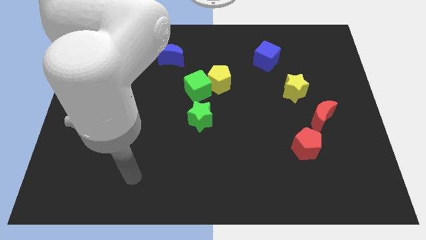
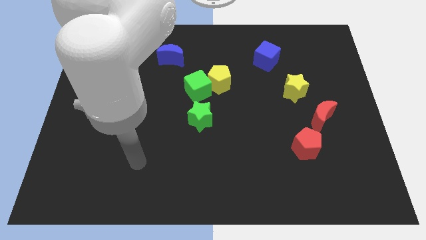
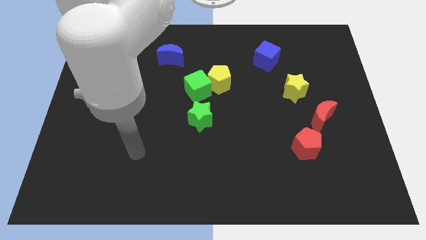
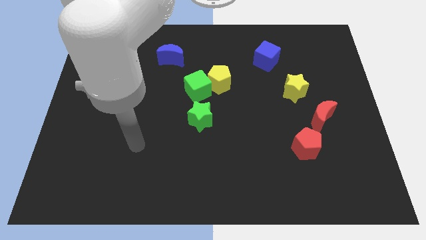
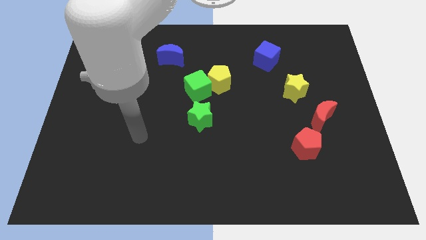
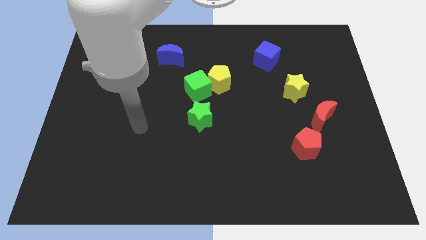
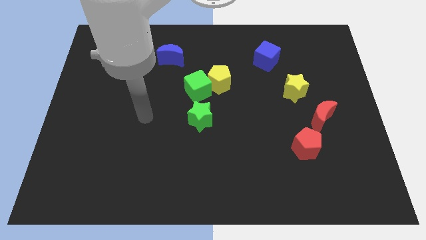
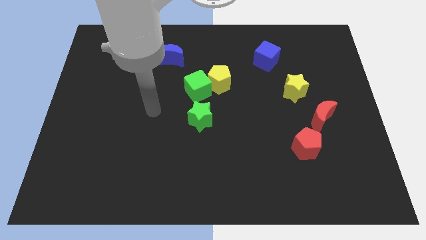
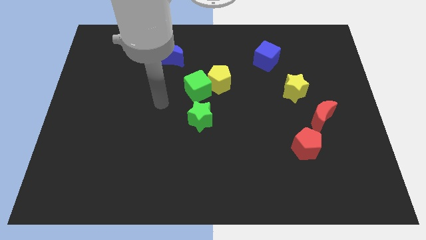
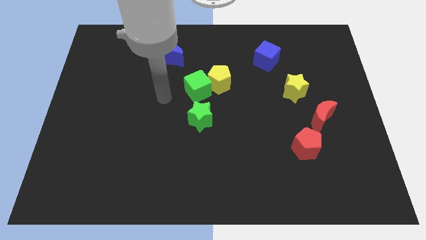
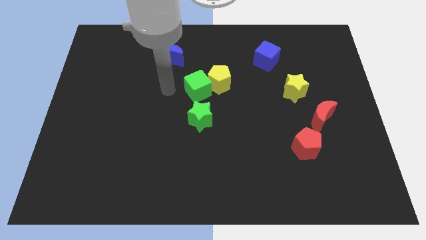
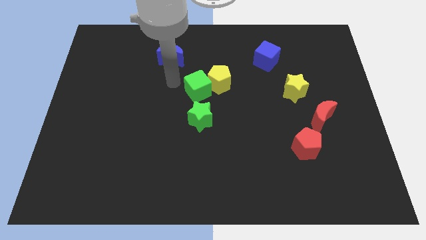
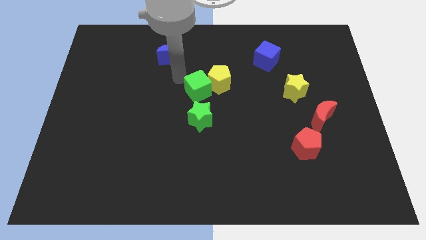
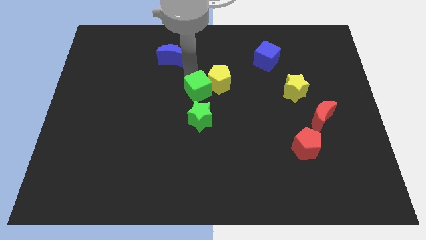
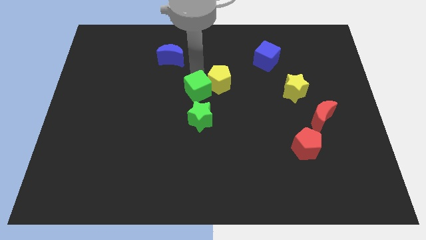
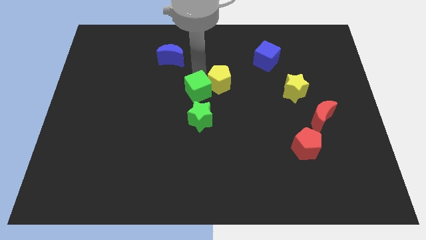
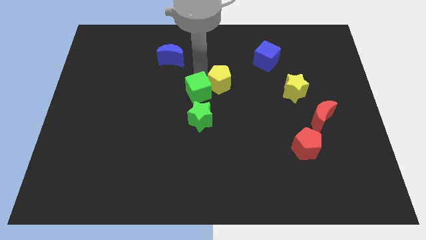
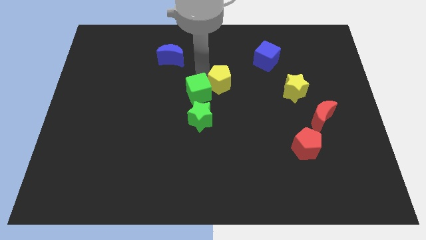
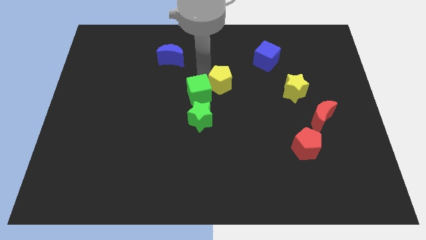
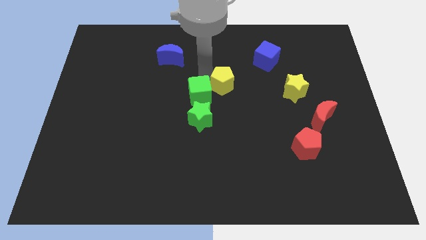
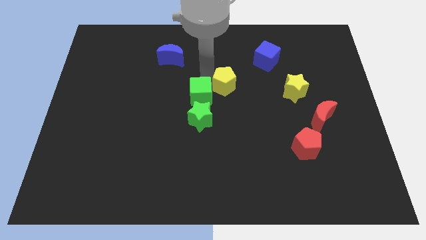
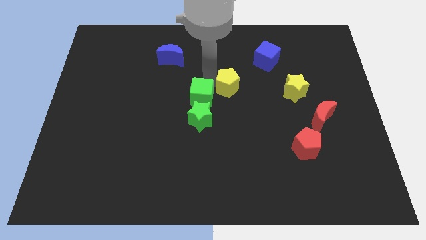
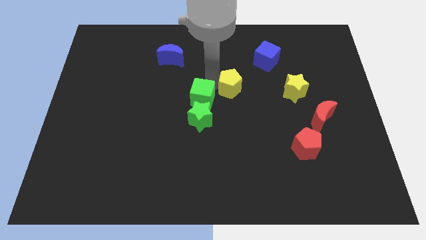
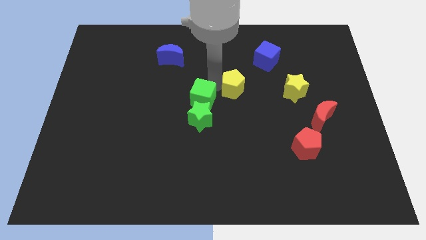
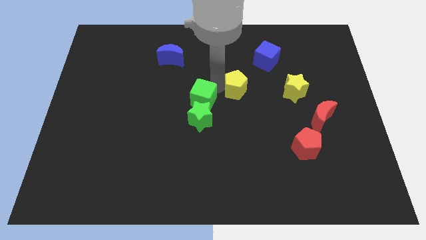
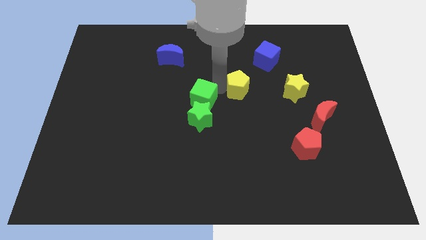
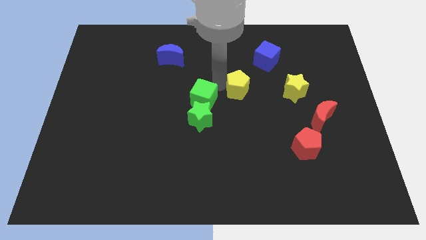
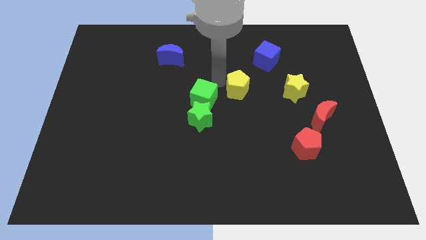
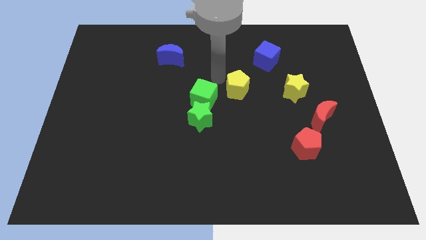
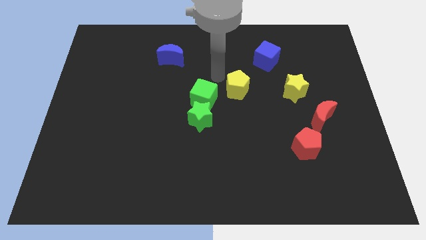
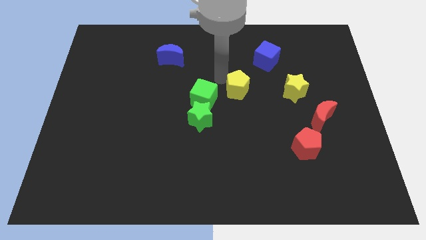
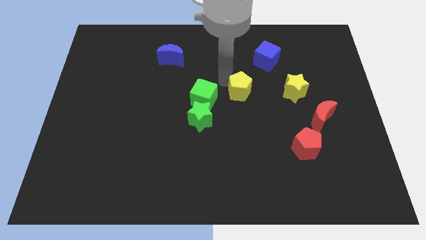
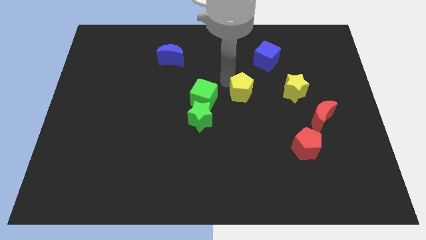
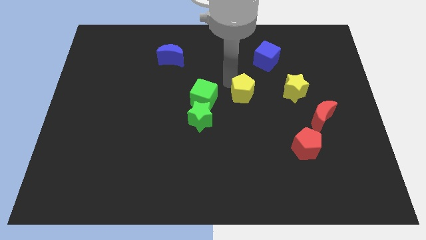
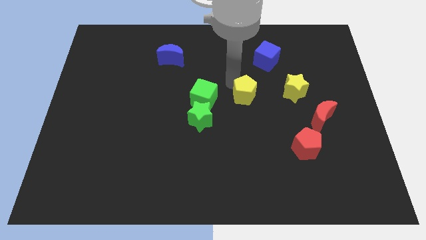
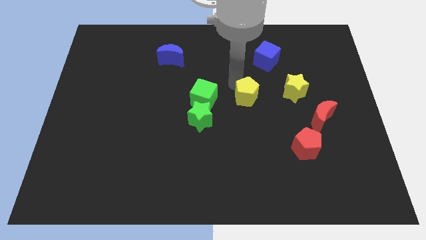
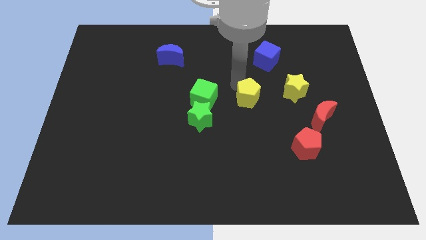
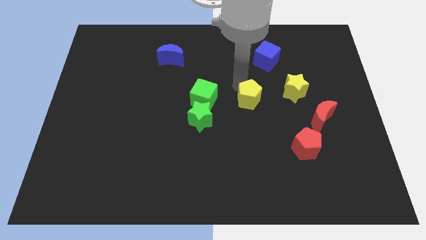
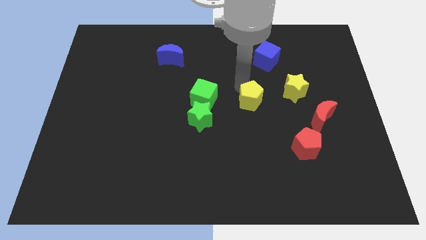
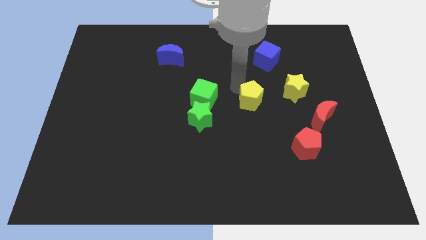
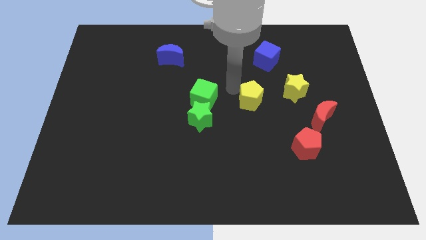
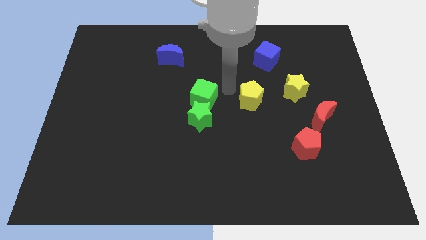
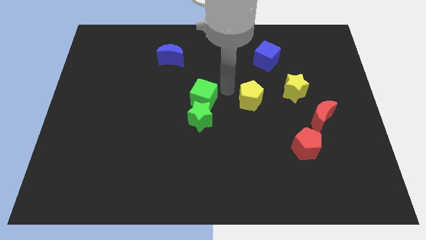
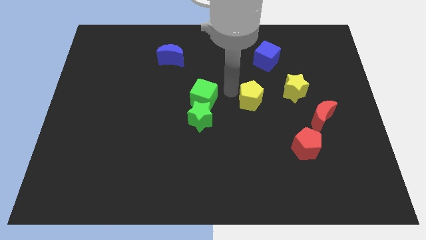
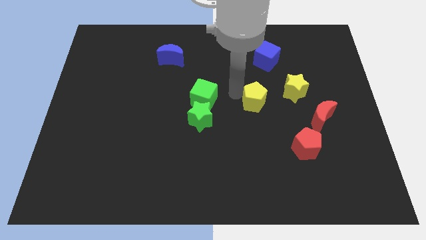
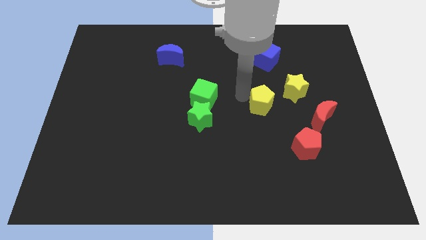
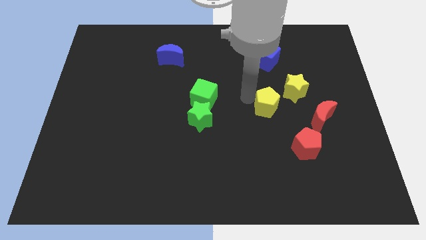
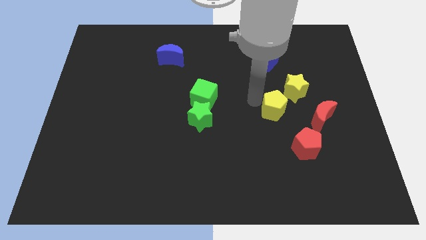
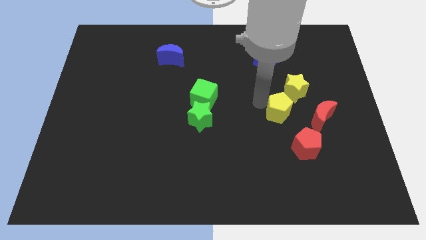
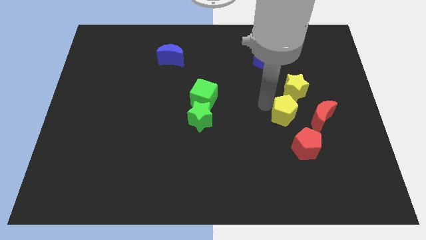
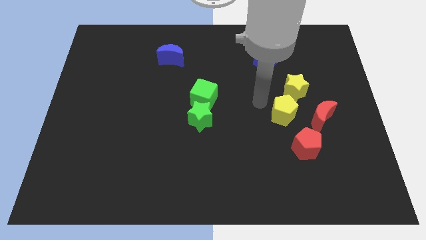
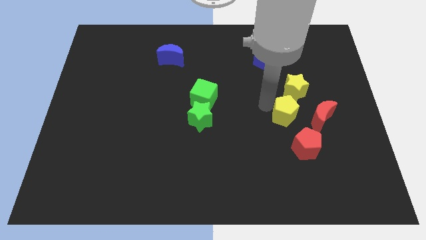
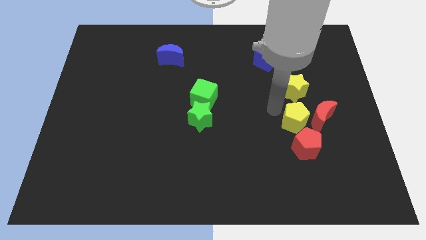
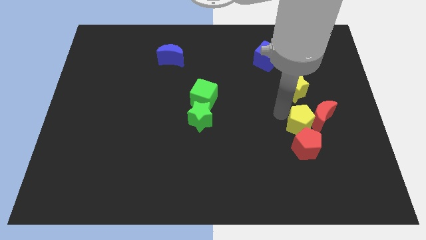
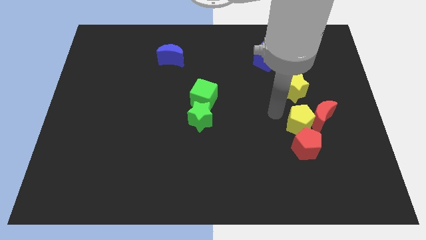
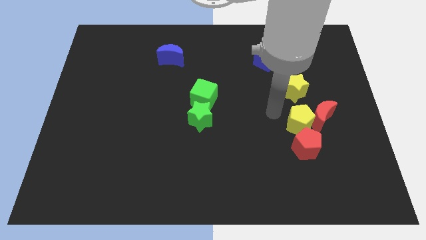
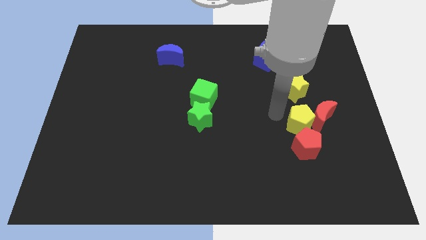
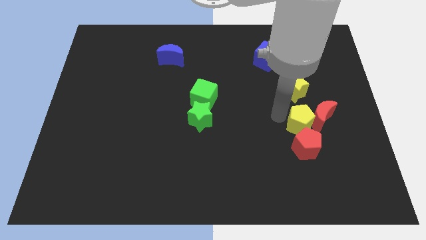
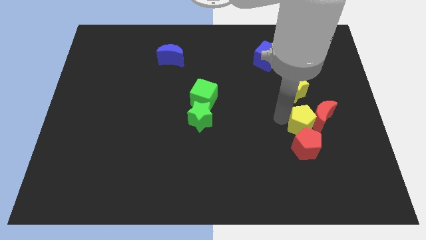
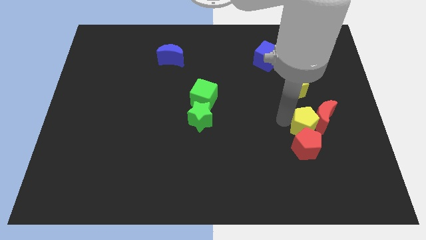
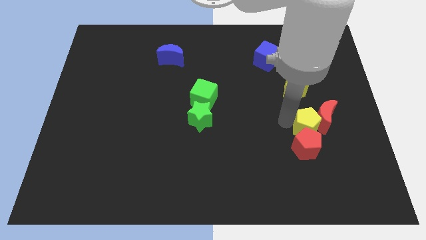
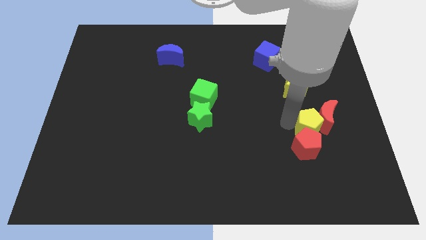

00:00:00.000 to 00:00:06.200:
move the yellow pentagon below the red moon
